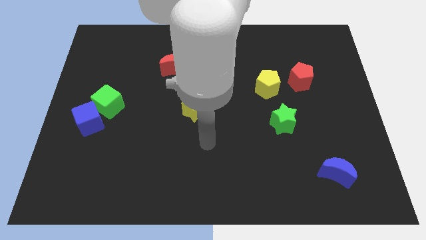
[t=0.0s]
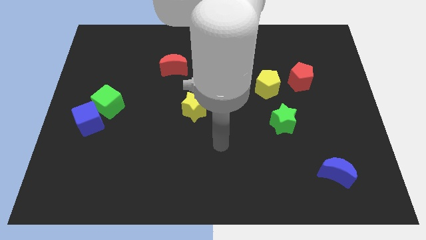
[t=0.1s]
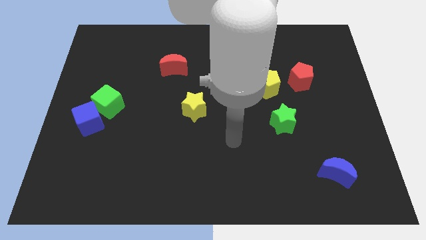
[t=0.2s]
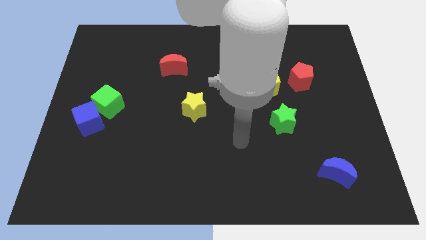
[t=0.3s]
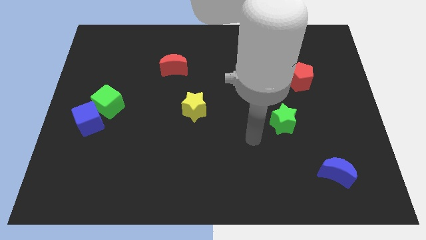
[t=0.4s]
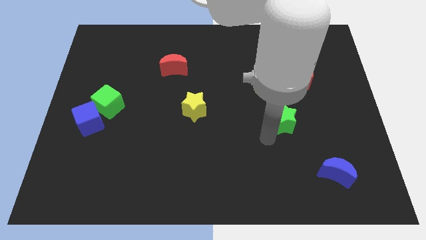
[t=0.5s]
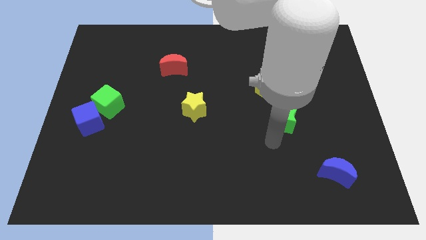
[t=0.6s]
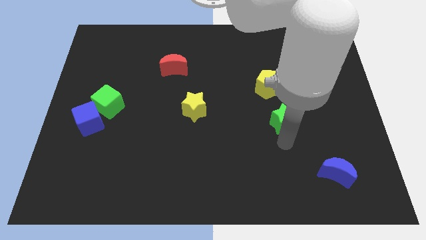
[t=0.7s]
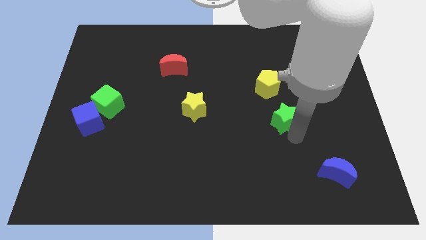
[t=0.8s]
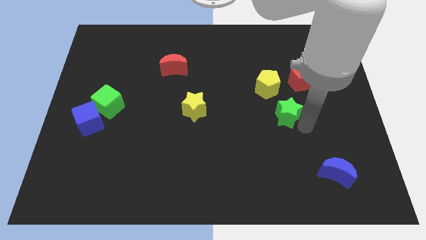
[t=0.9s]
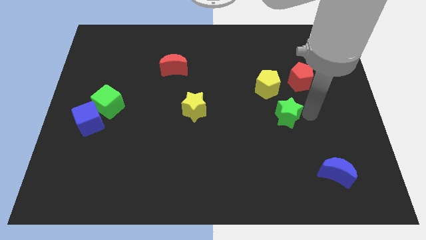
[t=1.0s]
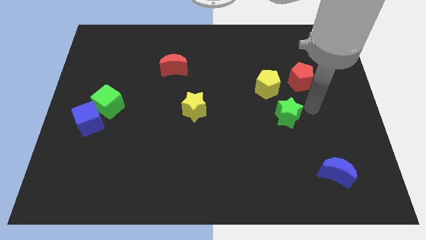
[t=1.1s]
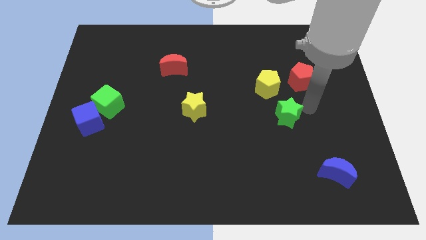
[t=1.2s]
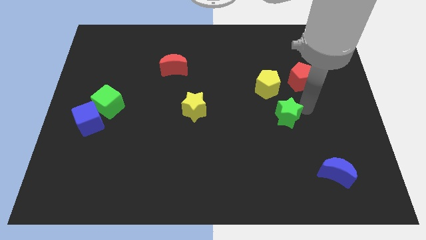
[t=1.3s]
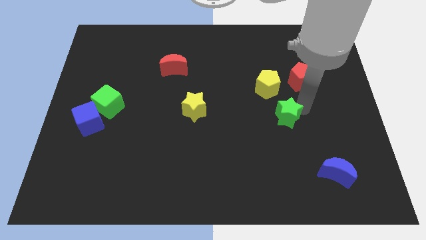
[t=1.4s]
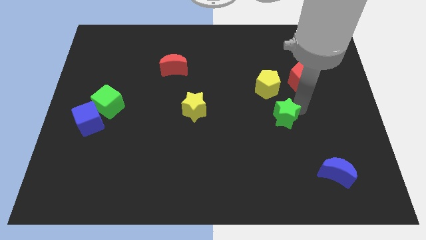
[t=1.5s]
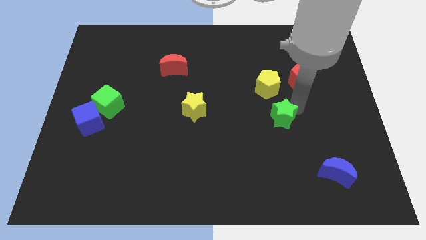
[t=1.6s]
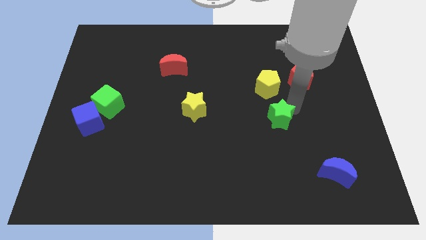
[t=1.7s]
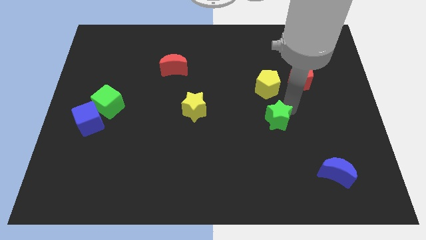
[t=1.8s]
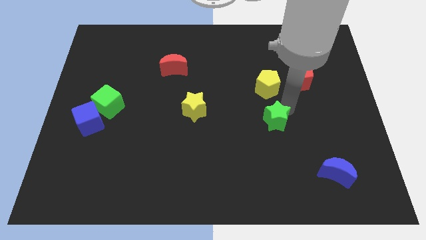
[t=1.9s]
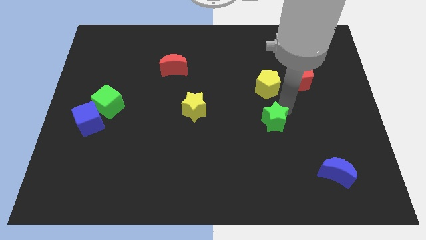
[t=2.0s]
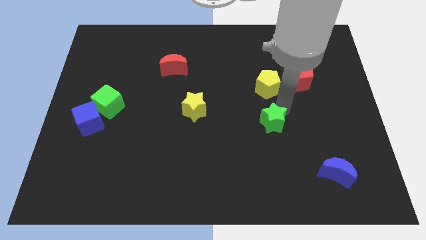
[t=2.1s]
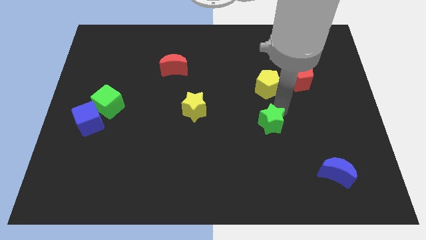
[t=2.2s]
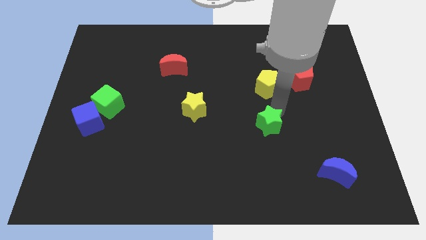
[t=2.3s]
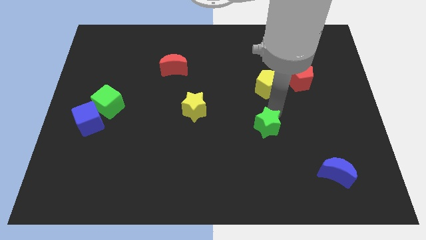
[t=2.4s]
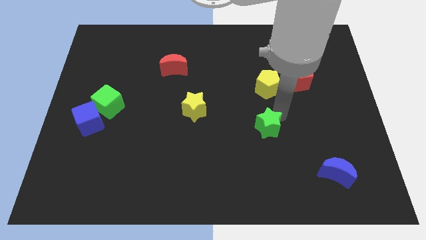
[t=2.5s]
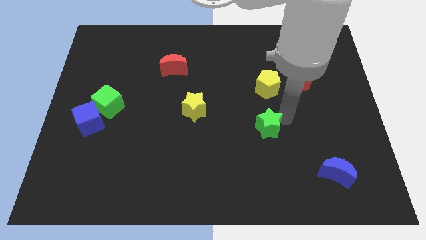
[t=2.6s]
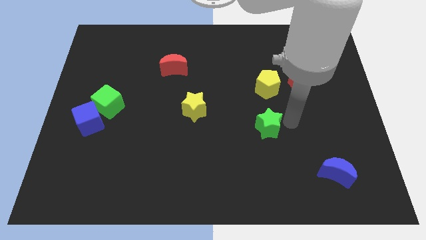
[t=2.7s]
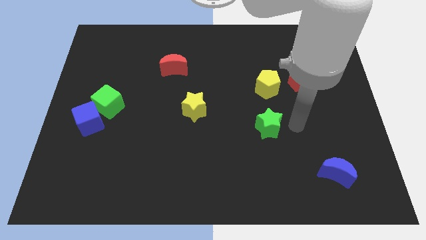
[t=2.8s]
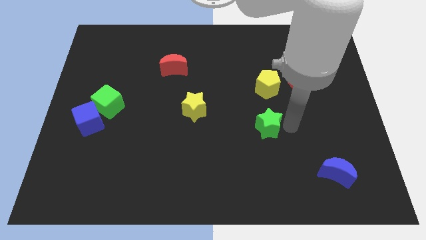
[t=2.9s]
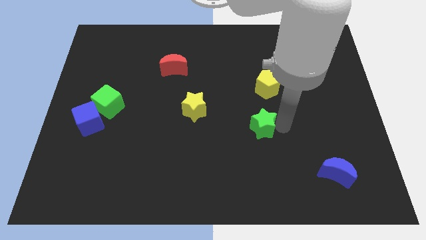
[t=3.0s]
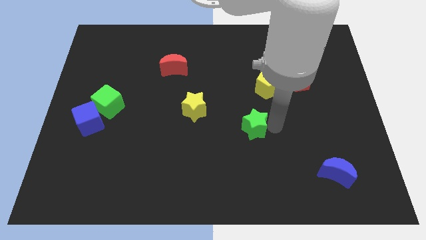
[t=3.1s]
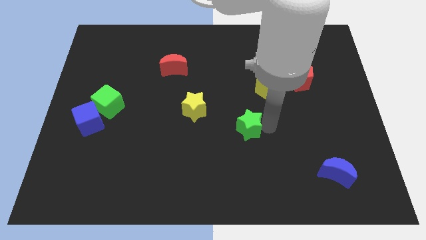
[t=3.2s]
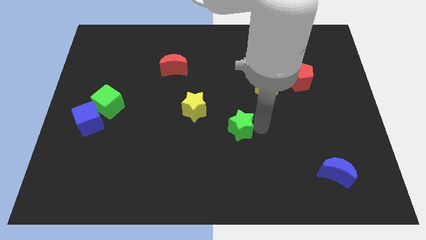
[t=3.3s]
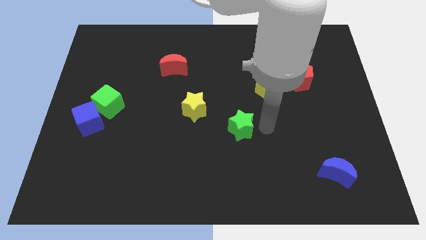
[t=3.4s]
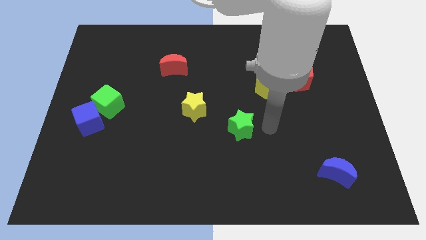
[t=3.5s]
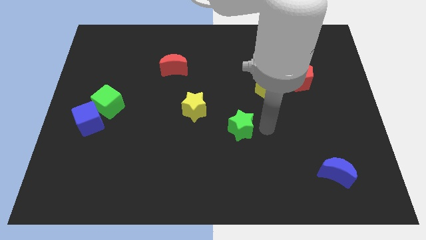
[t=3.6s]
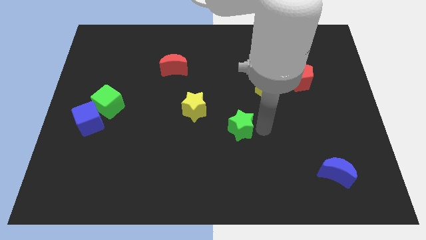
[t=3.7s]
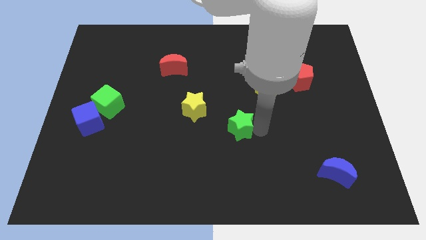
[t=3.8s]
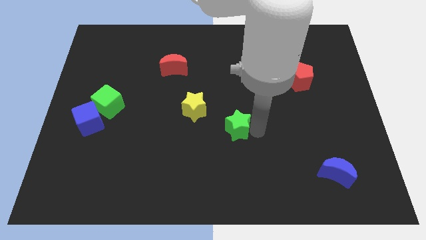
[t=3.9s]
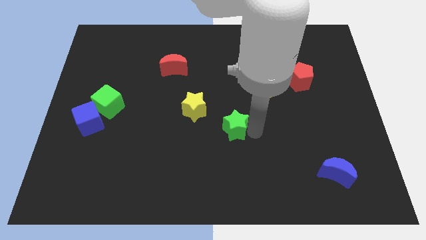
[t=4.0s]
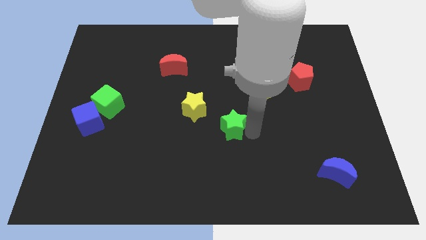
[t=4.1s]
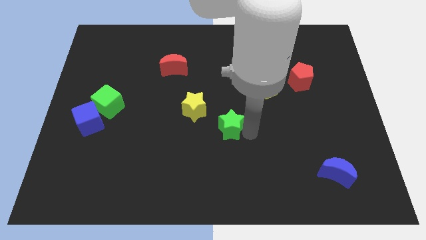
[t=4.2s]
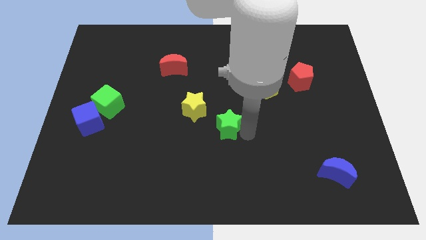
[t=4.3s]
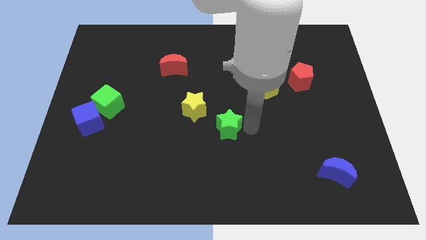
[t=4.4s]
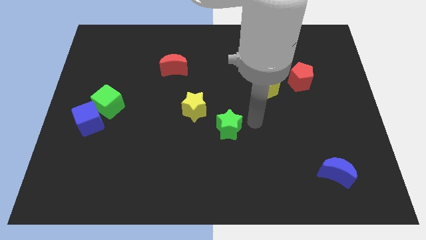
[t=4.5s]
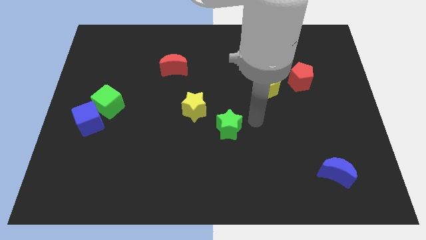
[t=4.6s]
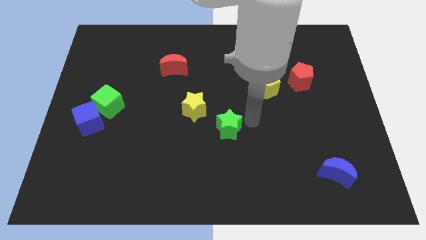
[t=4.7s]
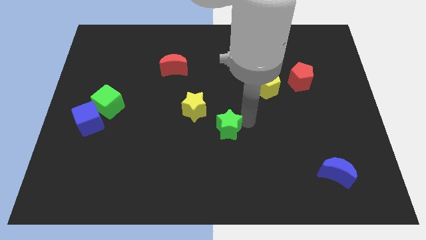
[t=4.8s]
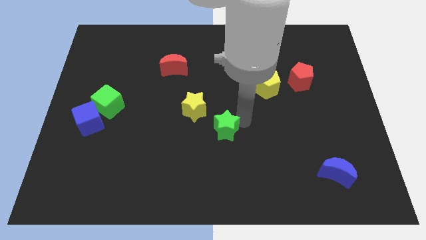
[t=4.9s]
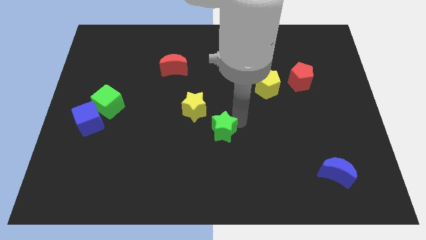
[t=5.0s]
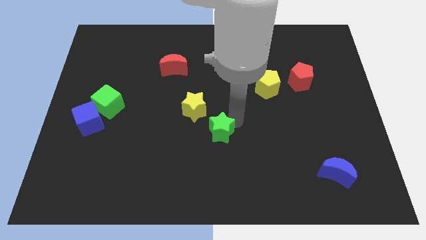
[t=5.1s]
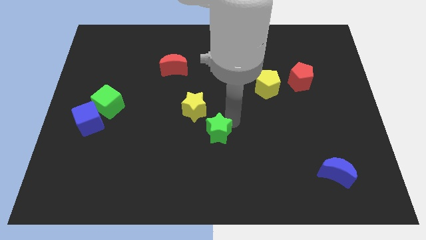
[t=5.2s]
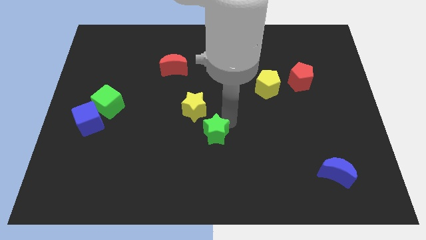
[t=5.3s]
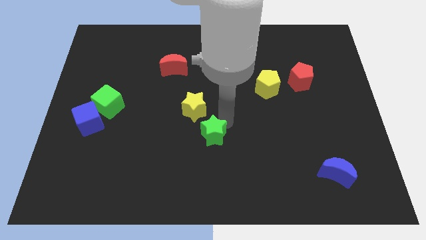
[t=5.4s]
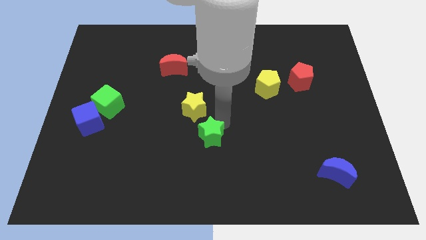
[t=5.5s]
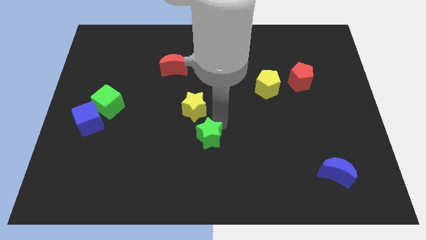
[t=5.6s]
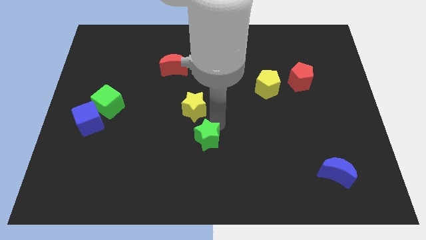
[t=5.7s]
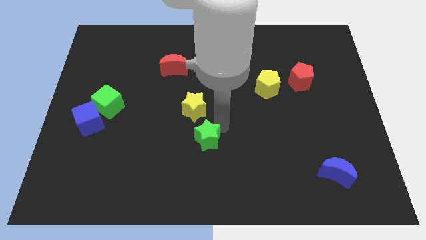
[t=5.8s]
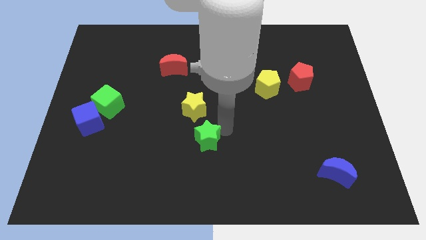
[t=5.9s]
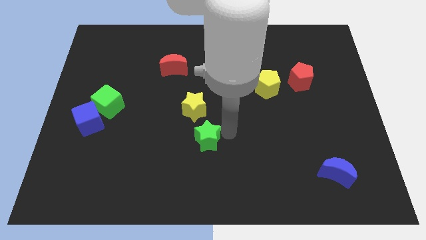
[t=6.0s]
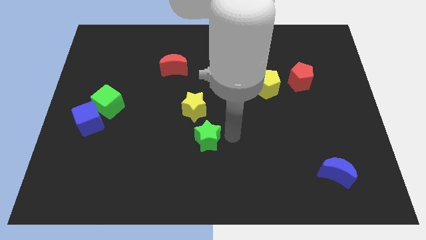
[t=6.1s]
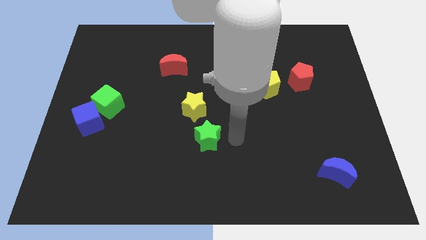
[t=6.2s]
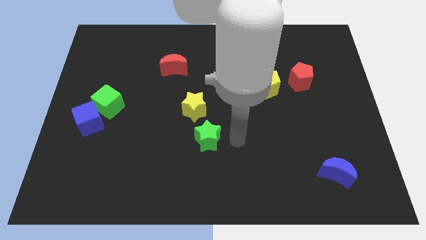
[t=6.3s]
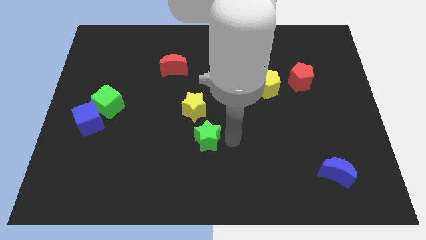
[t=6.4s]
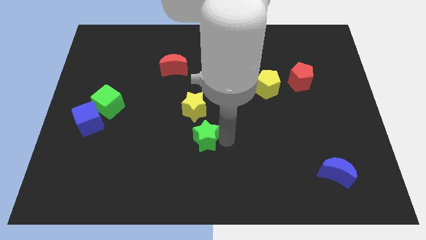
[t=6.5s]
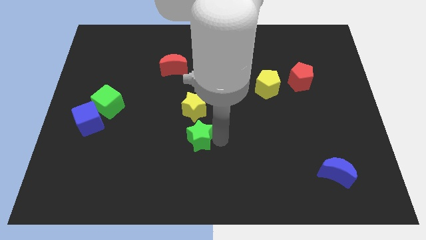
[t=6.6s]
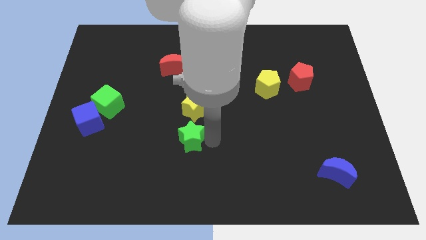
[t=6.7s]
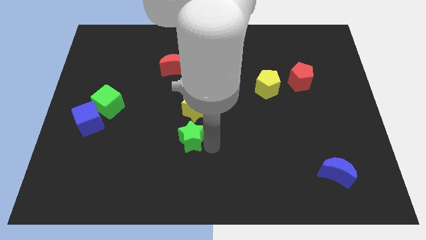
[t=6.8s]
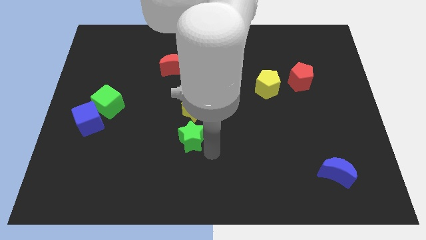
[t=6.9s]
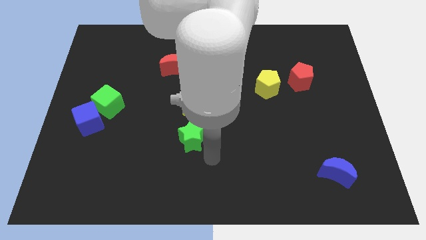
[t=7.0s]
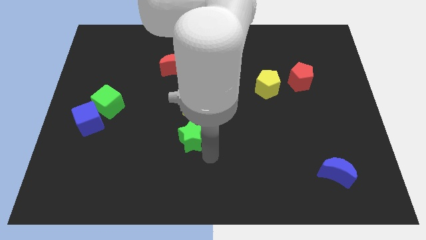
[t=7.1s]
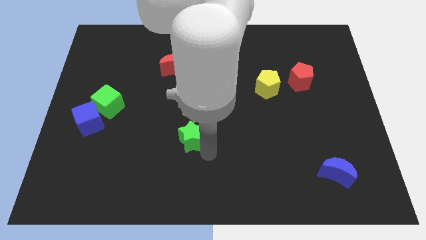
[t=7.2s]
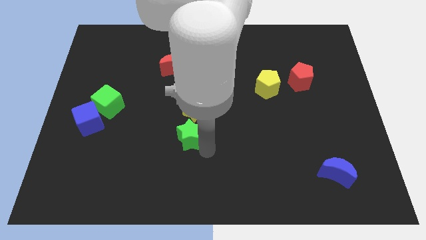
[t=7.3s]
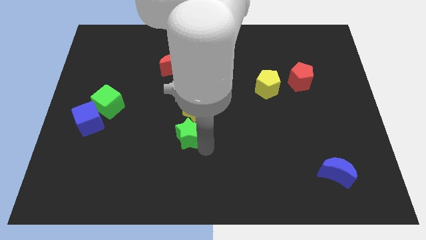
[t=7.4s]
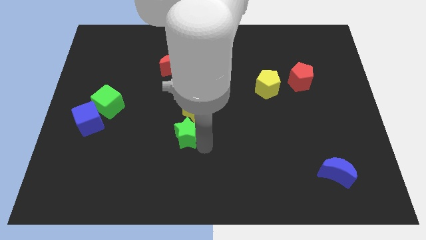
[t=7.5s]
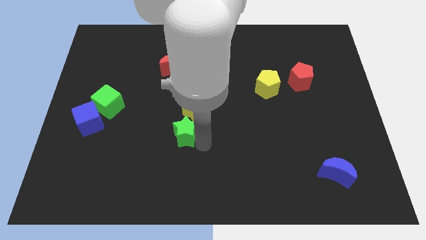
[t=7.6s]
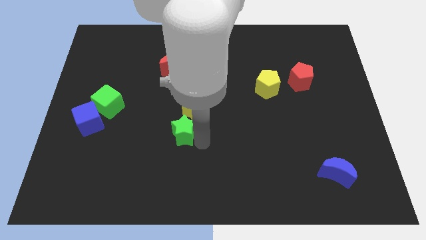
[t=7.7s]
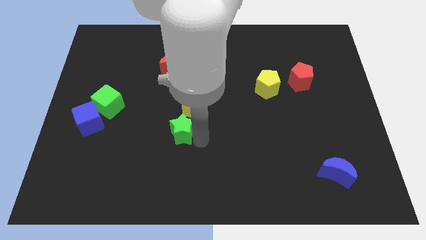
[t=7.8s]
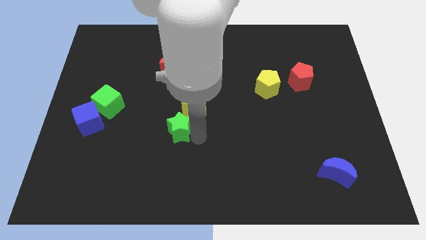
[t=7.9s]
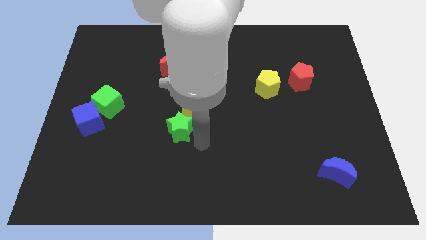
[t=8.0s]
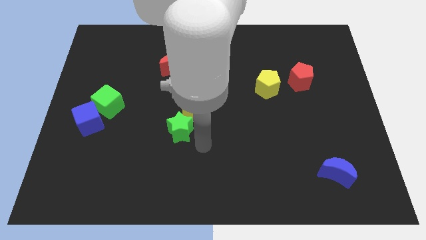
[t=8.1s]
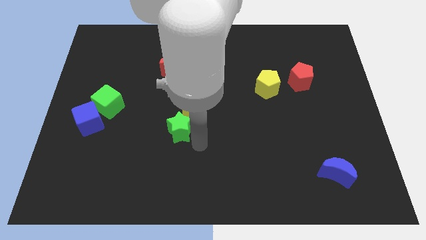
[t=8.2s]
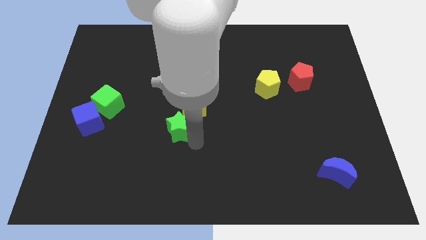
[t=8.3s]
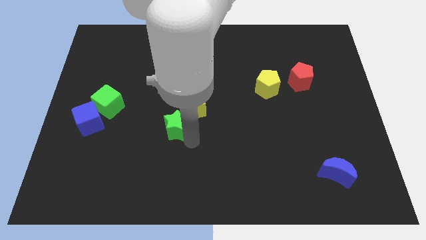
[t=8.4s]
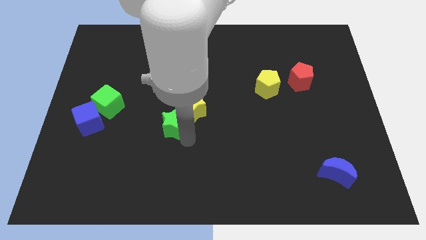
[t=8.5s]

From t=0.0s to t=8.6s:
put the green star to the left side of the yellow star
